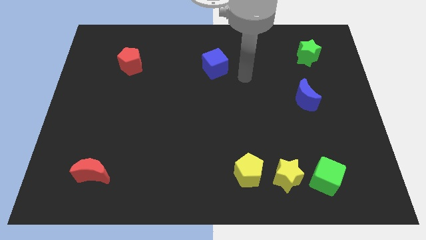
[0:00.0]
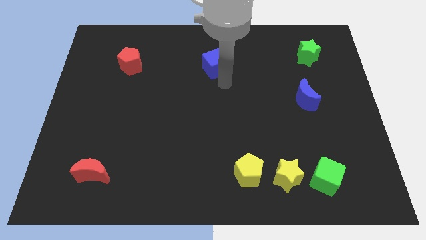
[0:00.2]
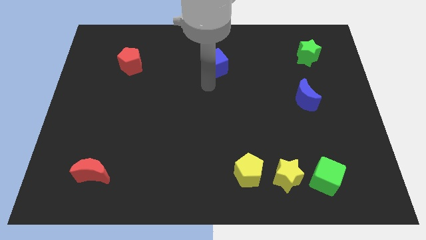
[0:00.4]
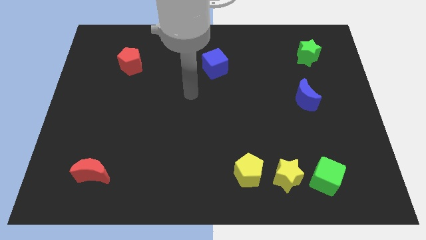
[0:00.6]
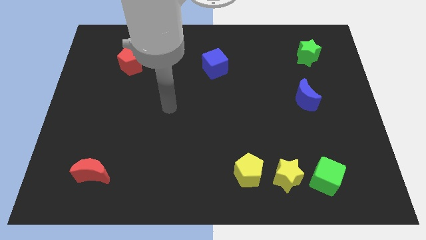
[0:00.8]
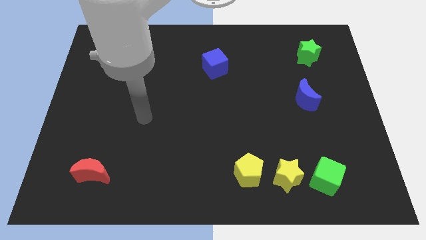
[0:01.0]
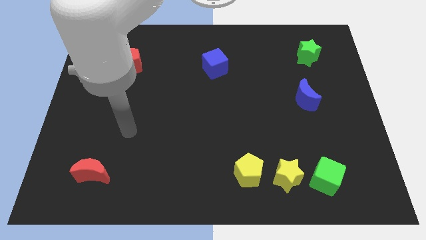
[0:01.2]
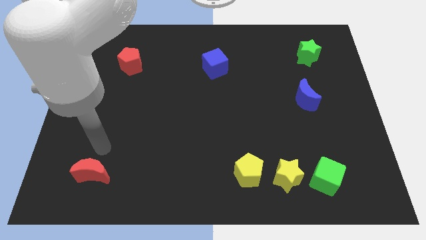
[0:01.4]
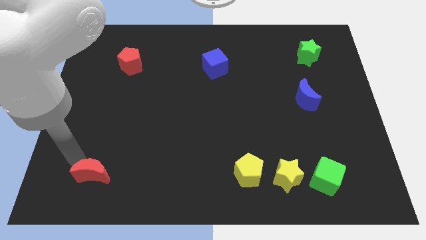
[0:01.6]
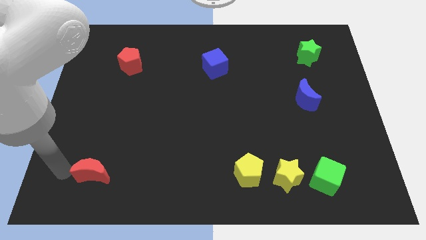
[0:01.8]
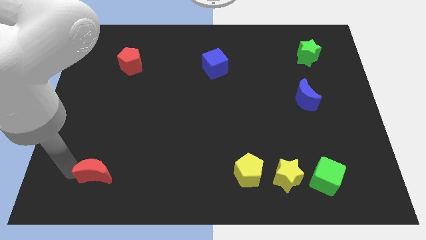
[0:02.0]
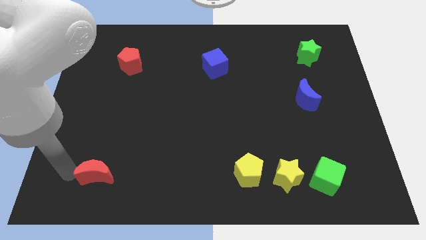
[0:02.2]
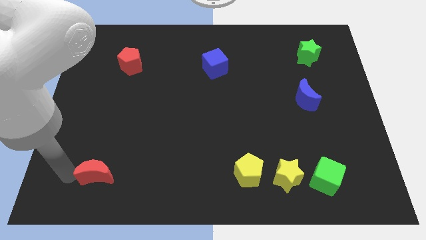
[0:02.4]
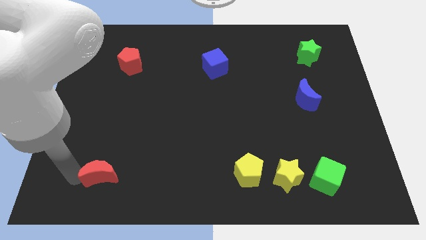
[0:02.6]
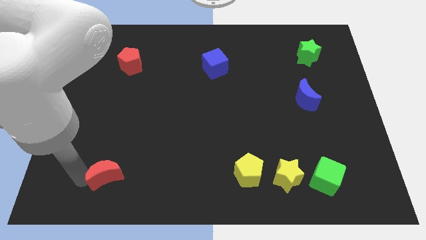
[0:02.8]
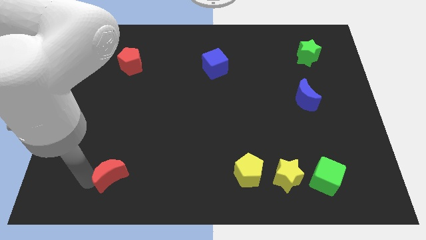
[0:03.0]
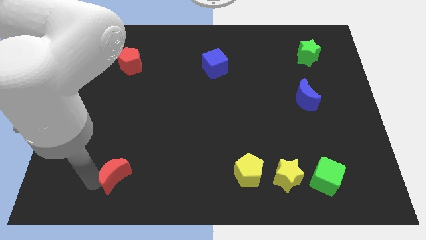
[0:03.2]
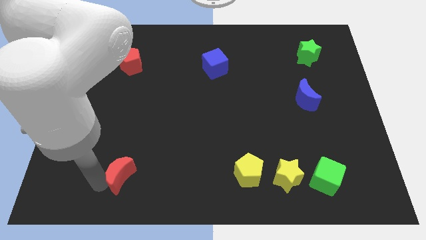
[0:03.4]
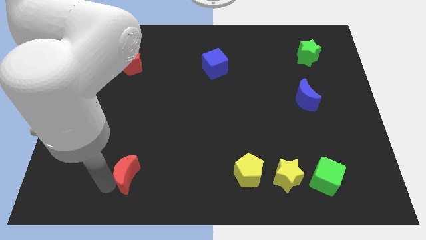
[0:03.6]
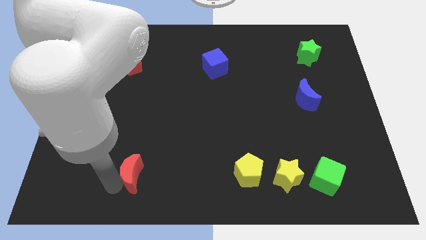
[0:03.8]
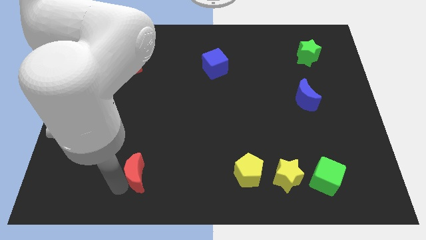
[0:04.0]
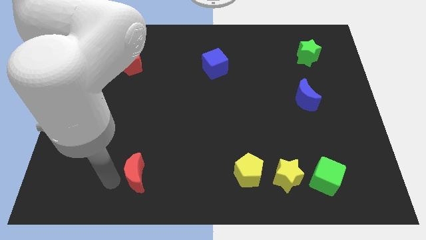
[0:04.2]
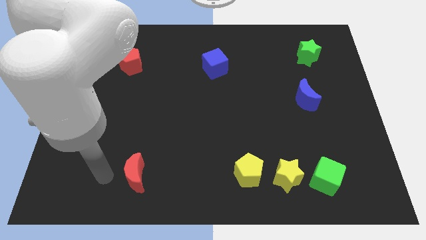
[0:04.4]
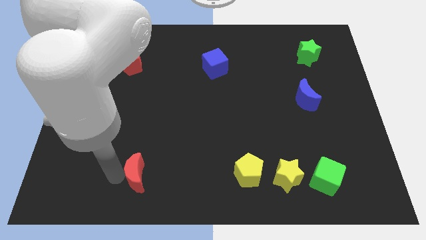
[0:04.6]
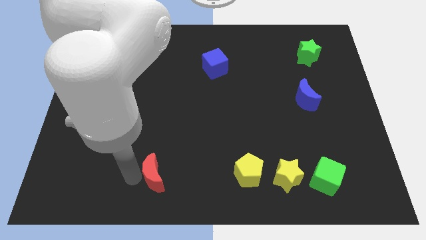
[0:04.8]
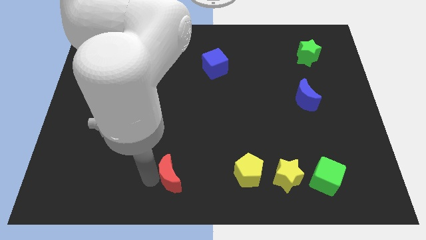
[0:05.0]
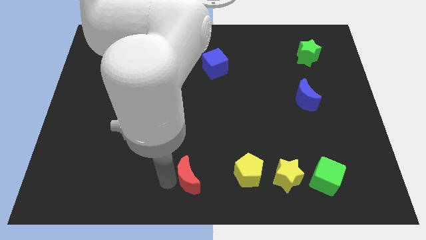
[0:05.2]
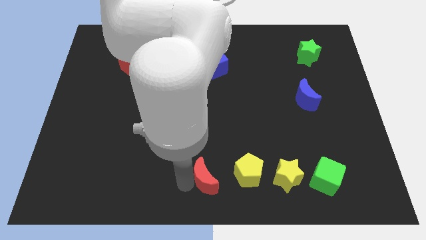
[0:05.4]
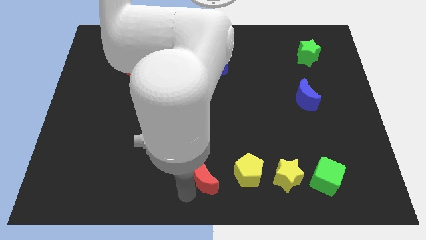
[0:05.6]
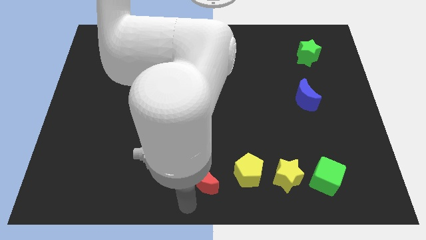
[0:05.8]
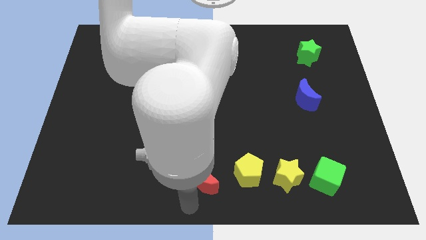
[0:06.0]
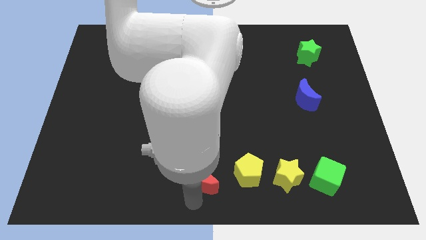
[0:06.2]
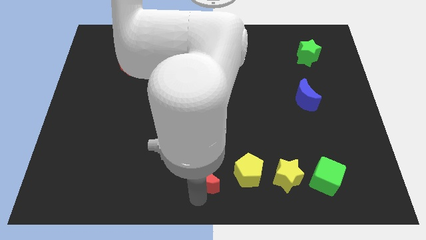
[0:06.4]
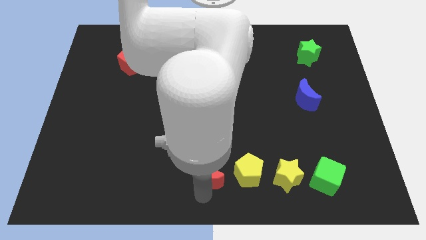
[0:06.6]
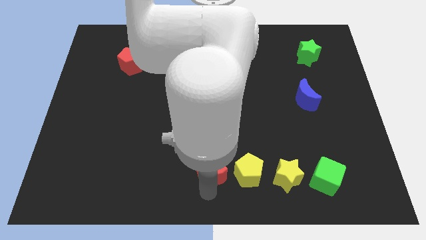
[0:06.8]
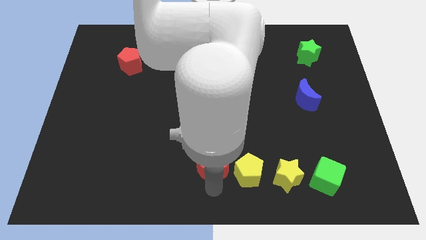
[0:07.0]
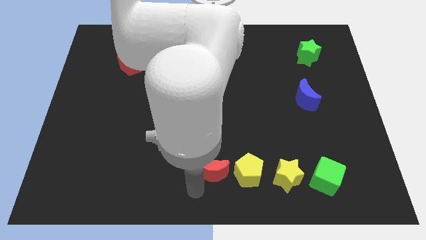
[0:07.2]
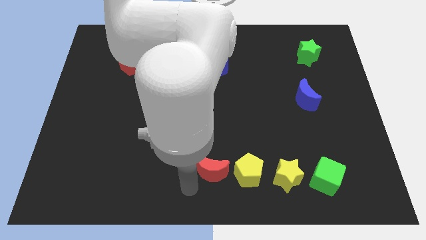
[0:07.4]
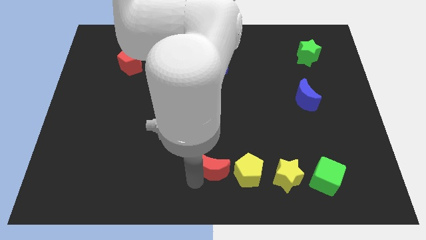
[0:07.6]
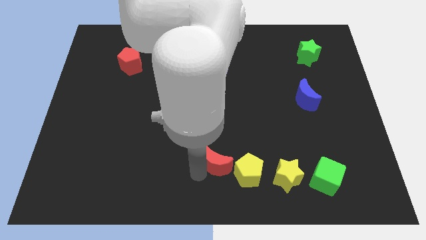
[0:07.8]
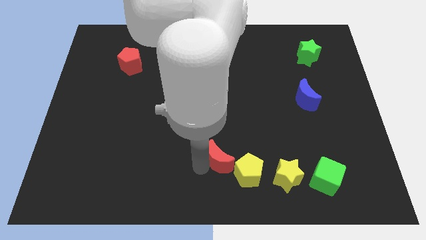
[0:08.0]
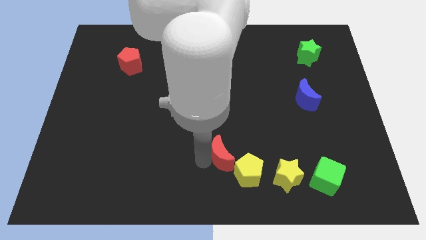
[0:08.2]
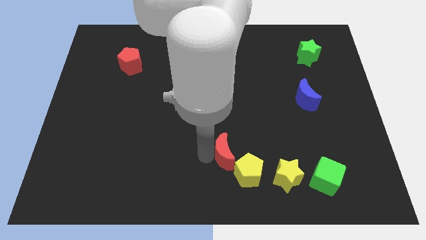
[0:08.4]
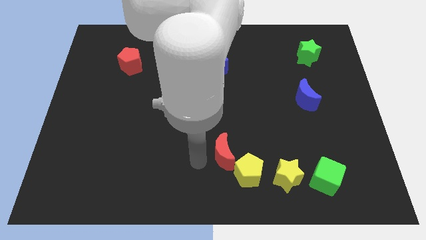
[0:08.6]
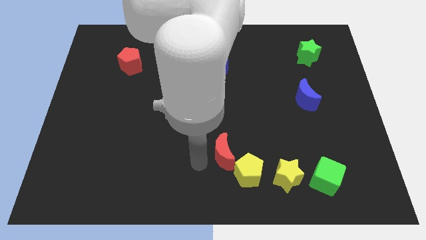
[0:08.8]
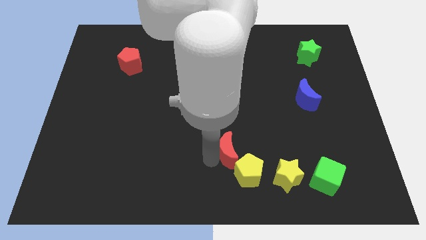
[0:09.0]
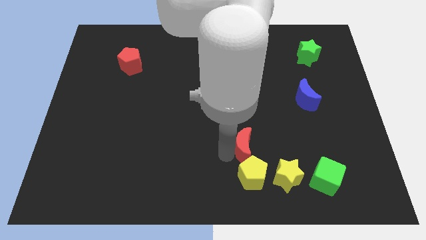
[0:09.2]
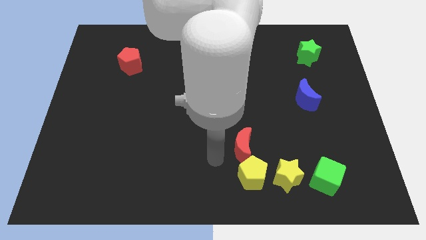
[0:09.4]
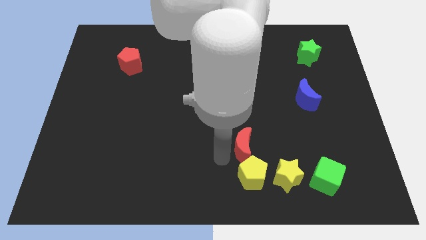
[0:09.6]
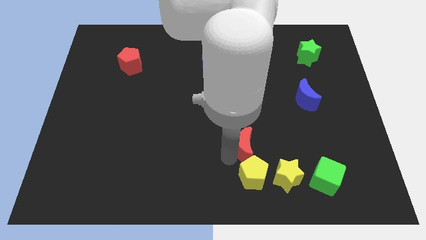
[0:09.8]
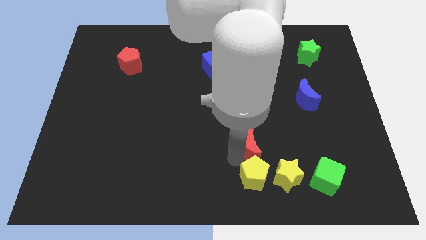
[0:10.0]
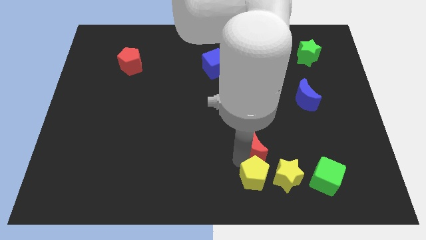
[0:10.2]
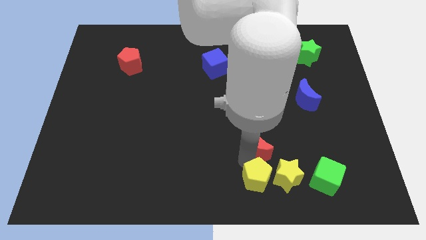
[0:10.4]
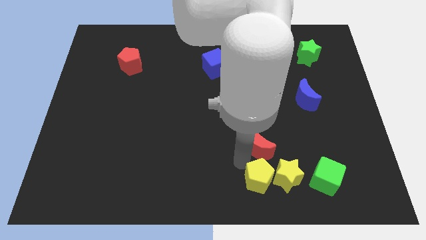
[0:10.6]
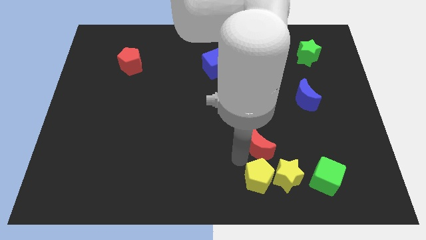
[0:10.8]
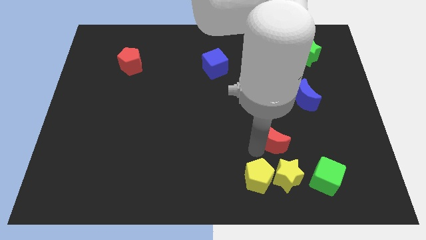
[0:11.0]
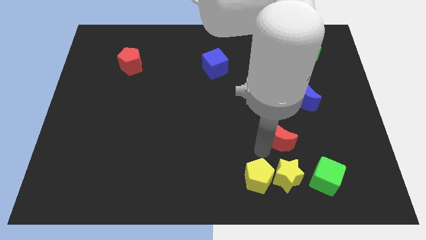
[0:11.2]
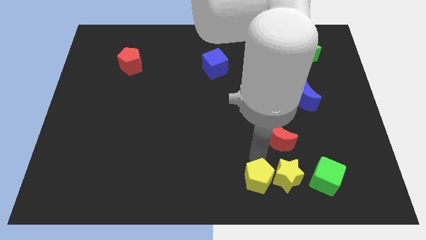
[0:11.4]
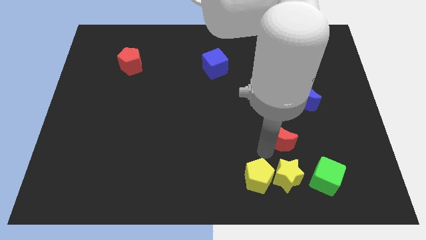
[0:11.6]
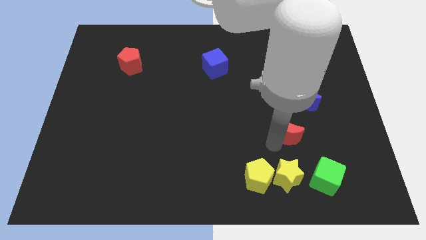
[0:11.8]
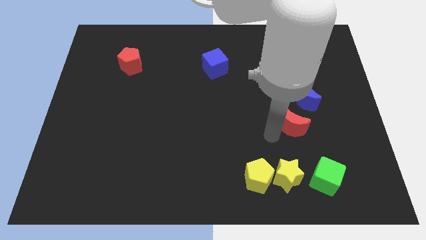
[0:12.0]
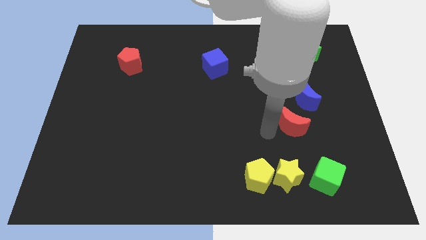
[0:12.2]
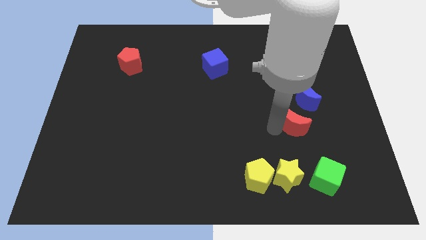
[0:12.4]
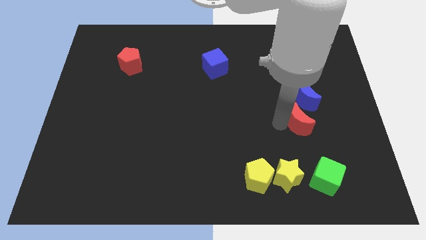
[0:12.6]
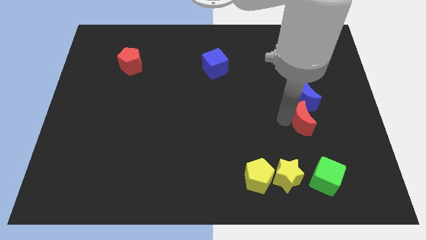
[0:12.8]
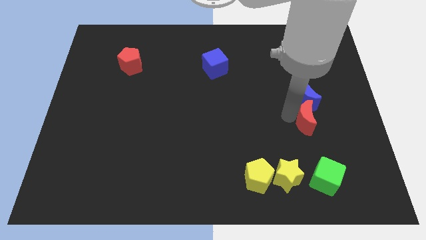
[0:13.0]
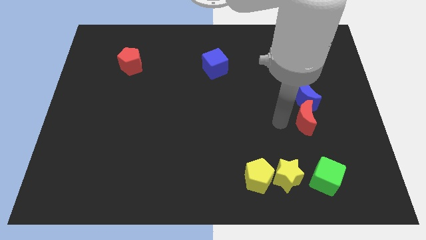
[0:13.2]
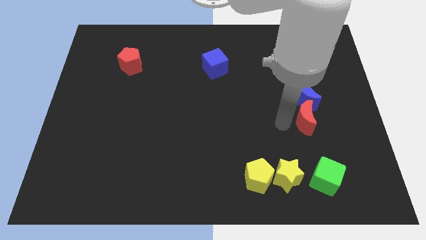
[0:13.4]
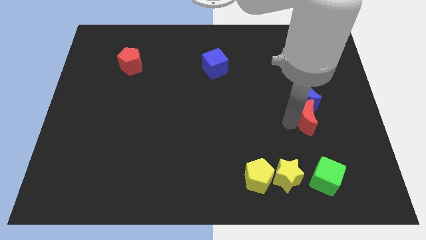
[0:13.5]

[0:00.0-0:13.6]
move the red moon to the bottom right of the blue moon
